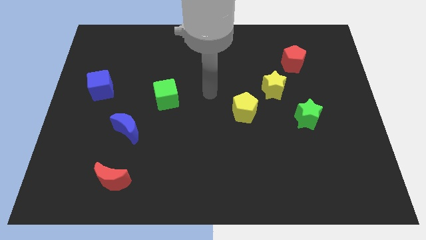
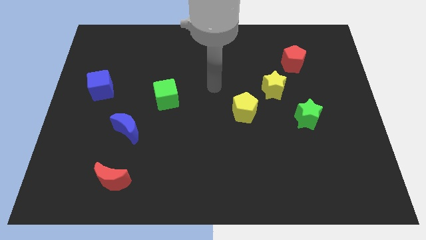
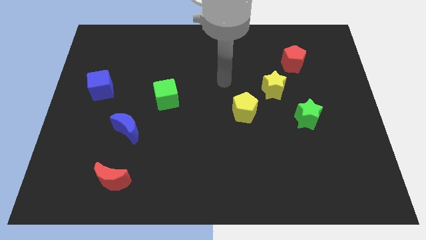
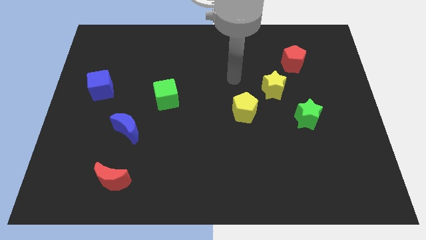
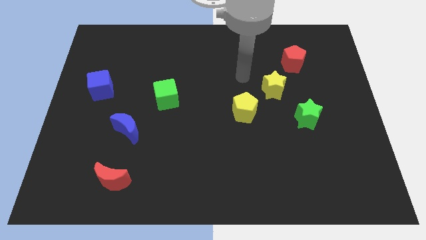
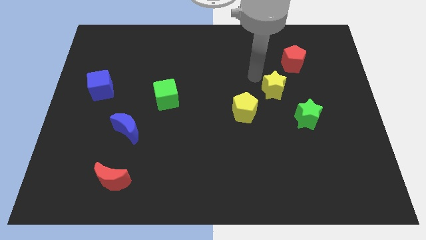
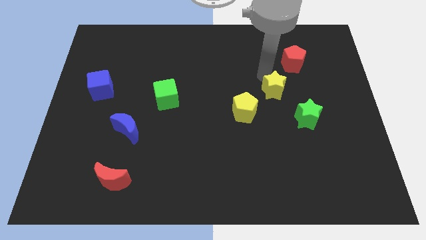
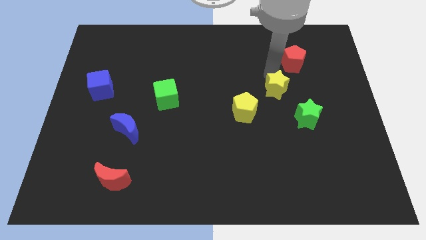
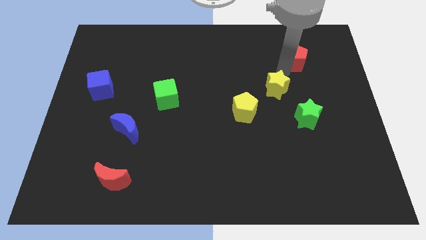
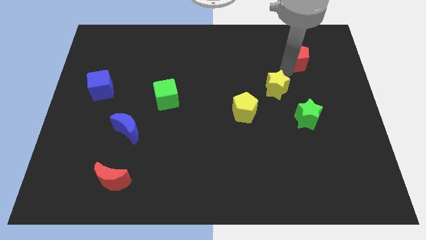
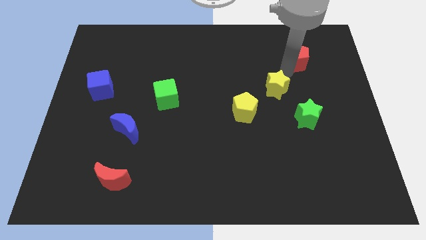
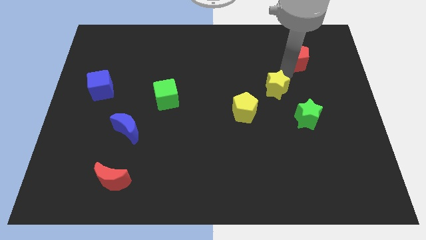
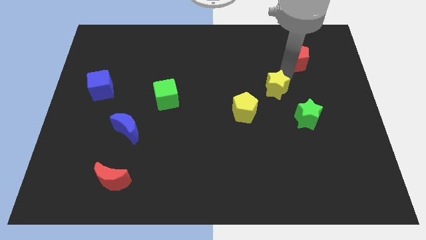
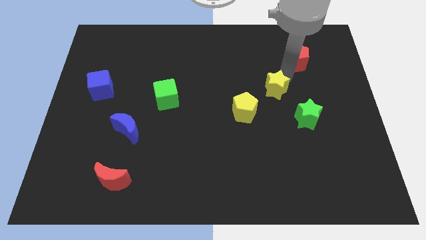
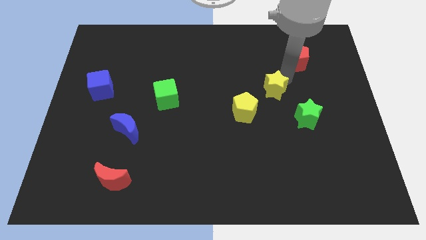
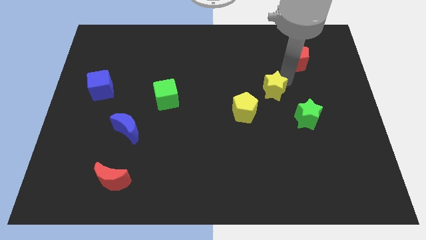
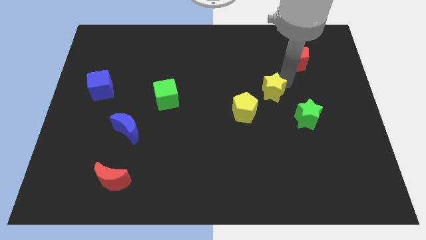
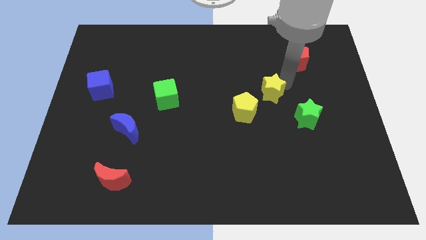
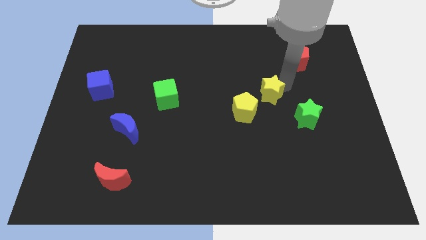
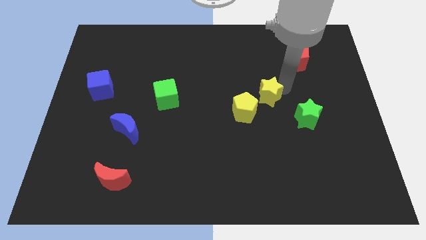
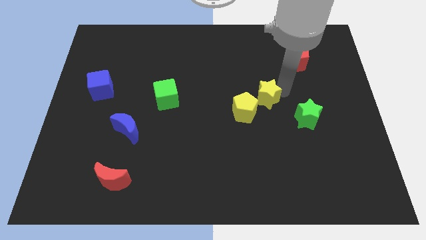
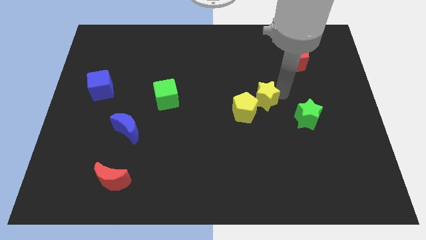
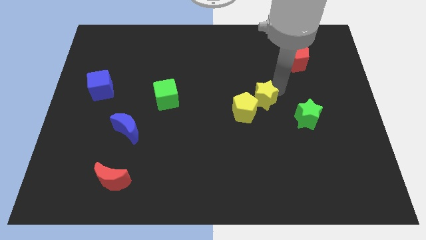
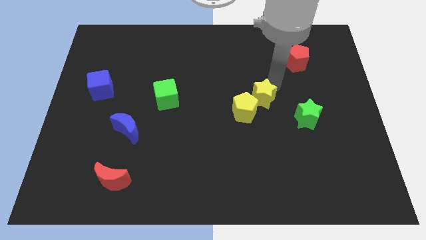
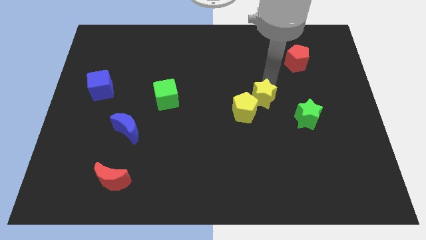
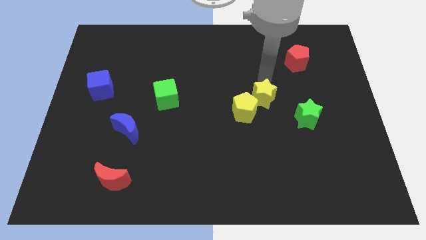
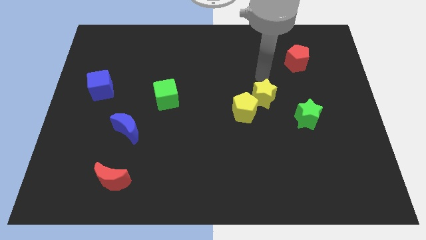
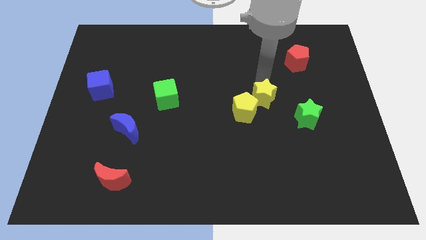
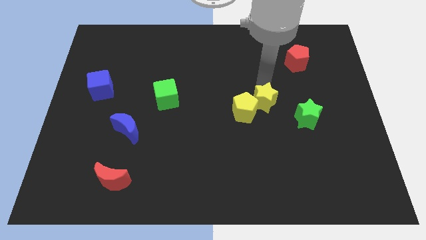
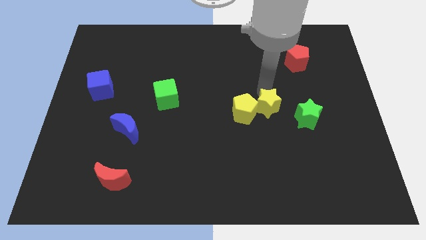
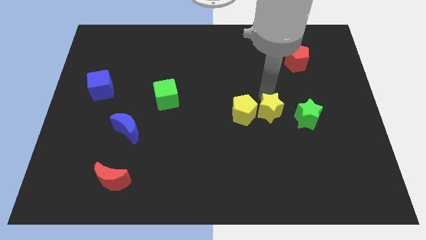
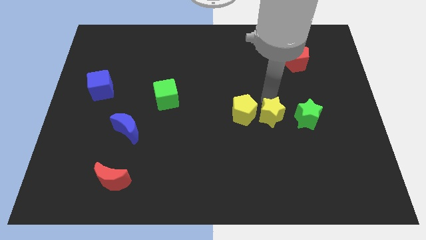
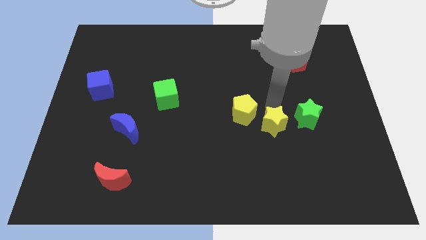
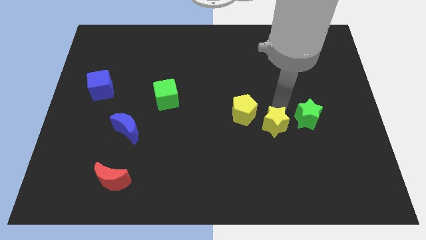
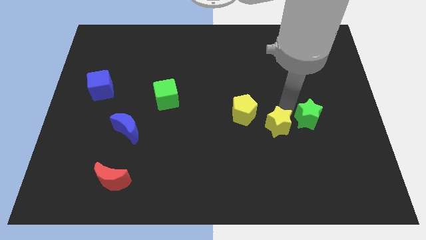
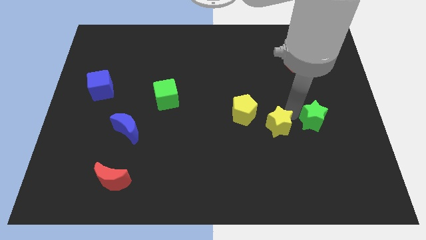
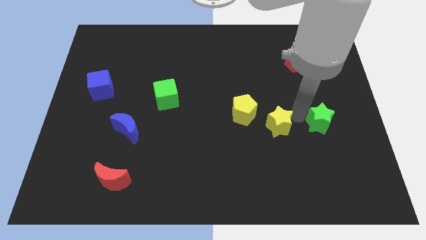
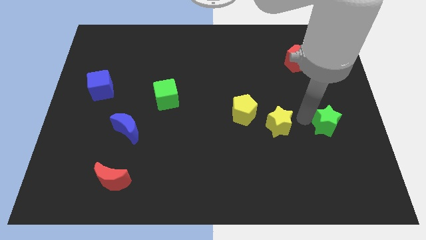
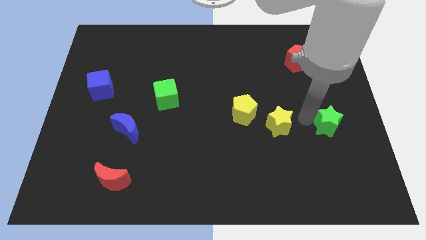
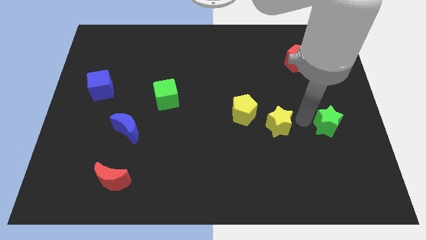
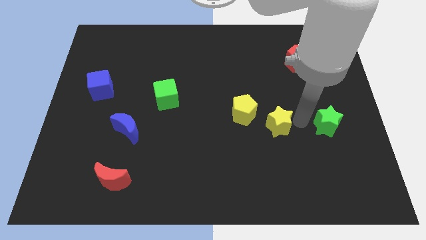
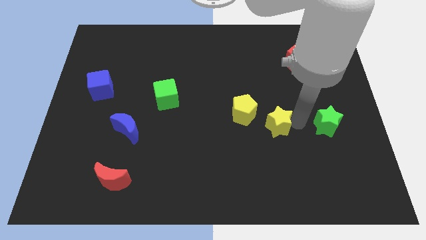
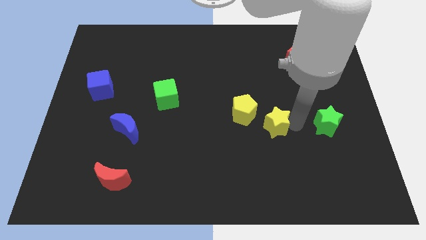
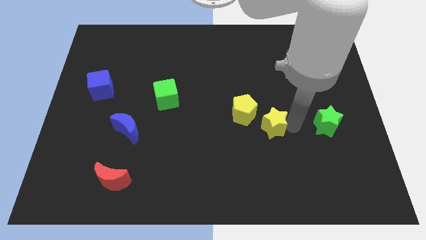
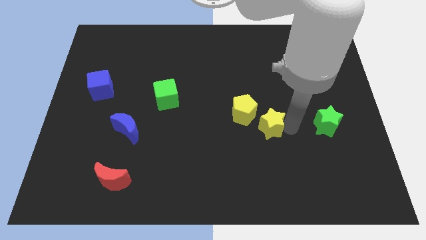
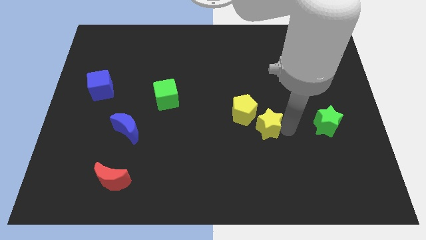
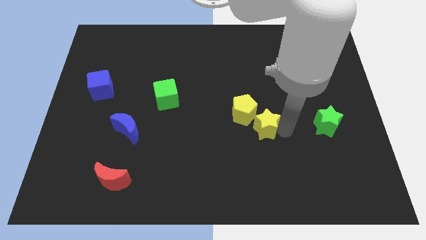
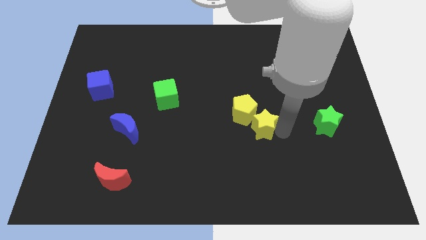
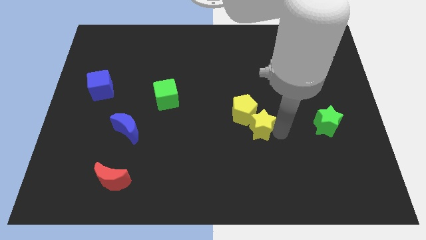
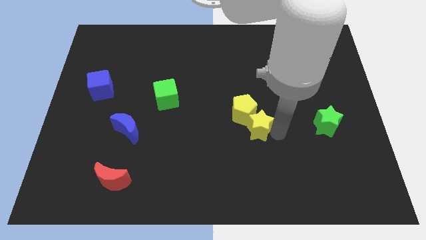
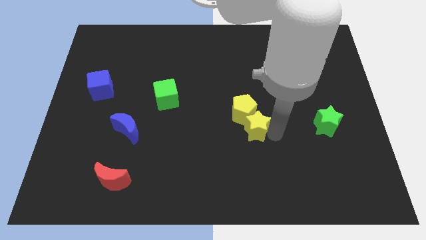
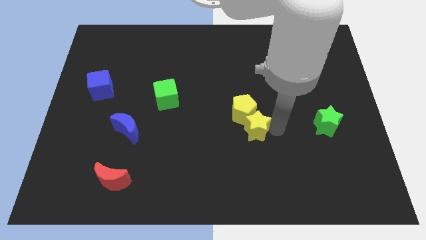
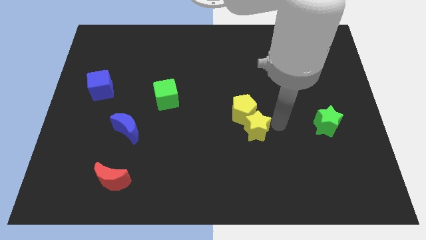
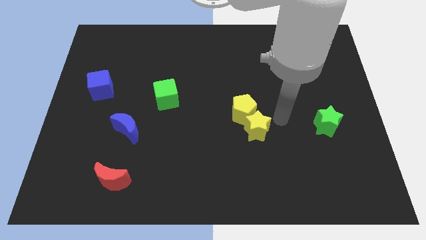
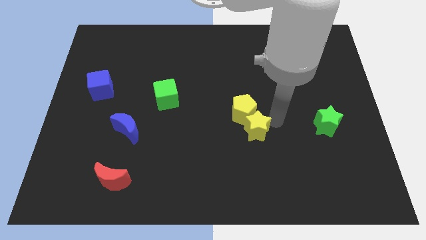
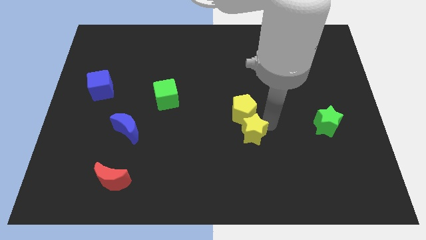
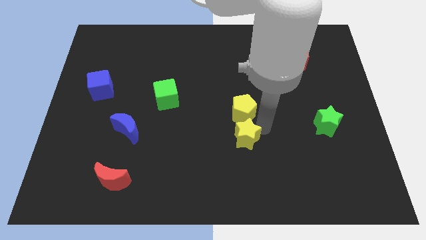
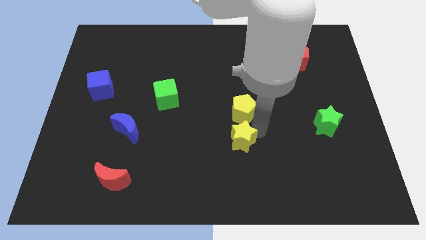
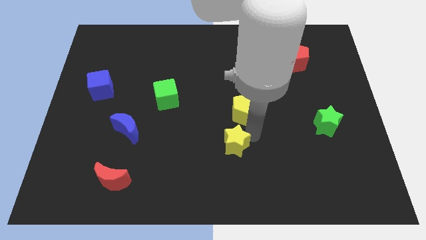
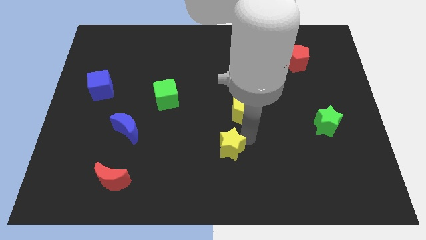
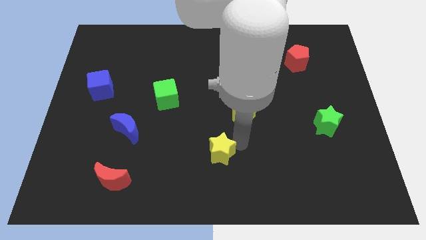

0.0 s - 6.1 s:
move the yellow star down and left diagonally

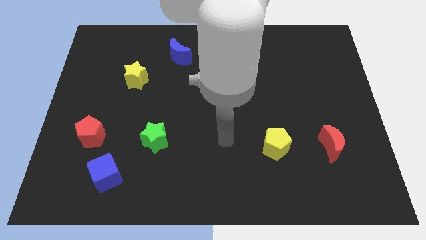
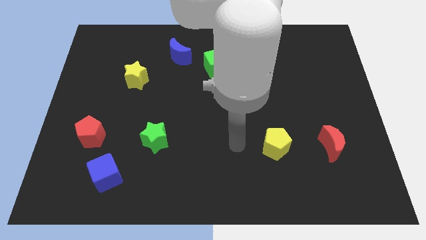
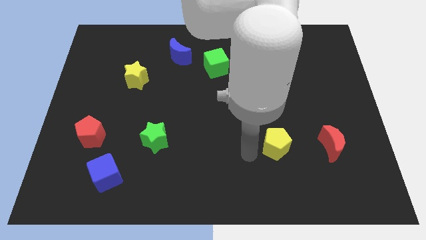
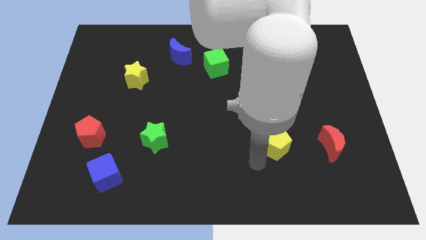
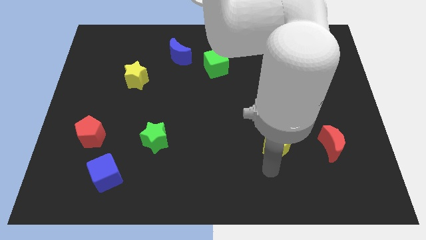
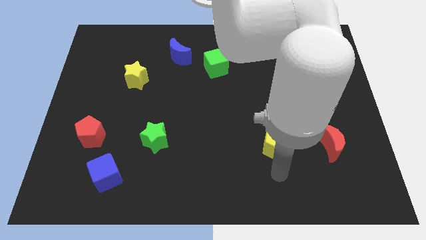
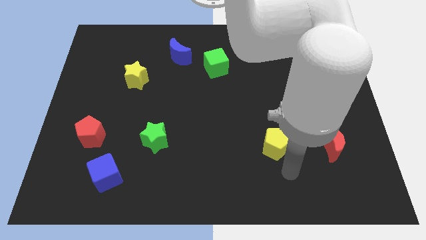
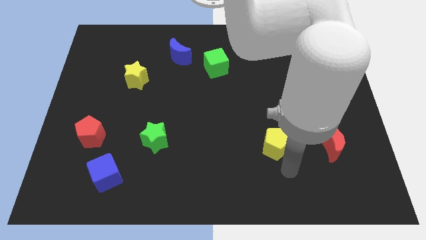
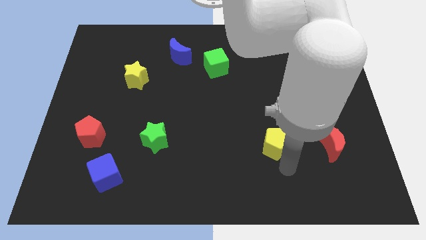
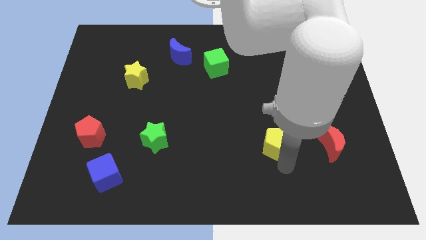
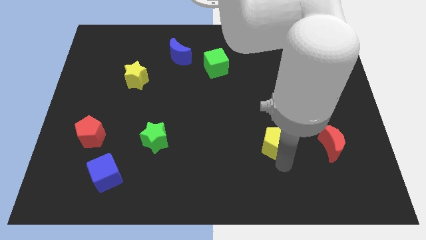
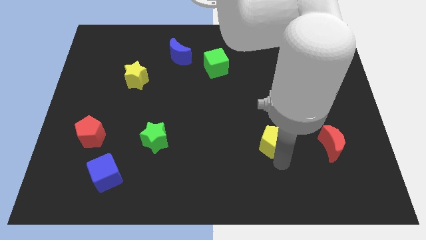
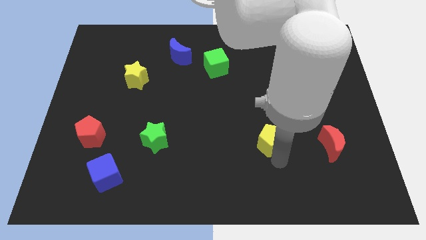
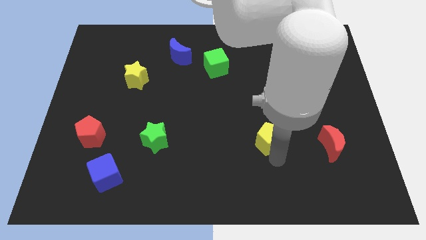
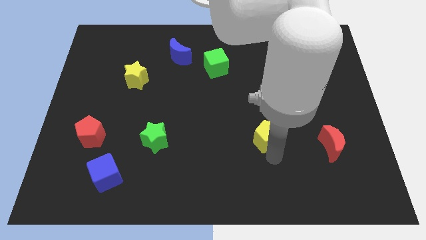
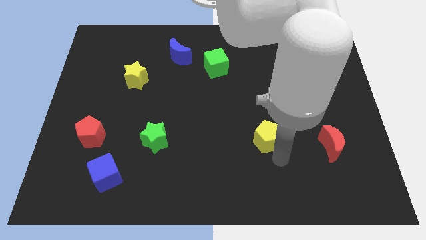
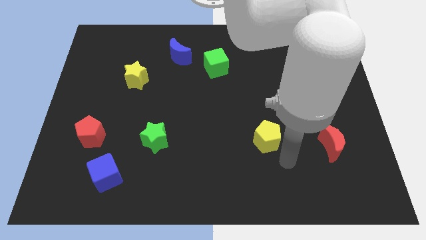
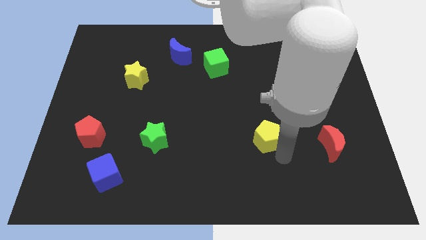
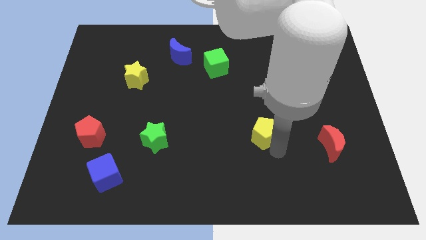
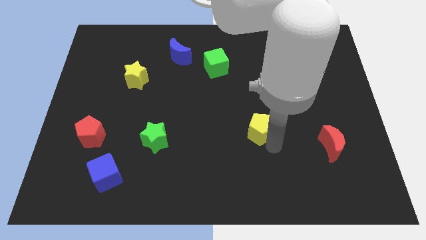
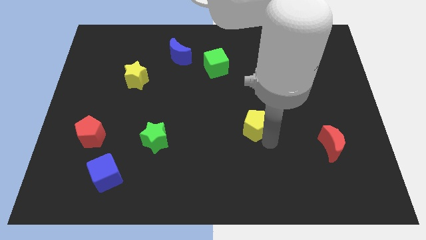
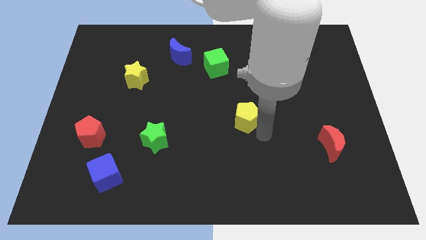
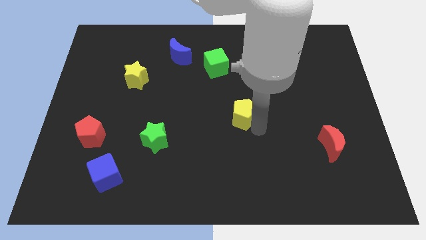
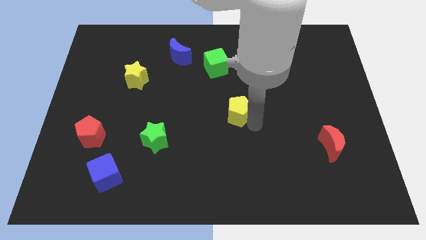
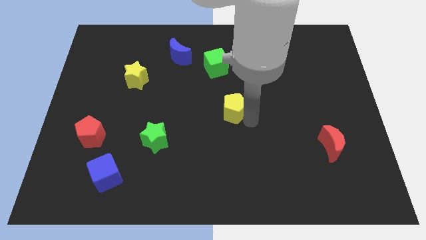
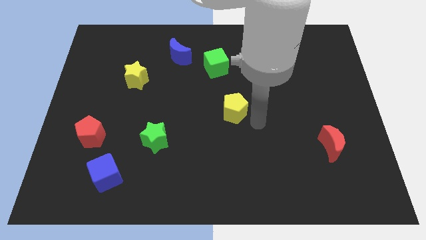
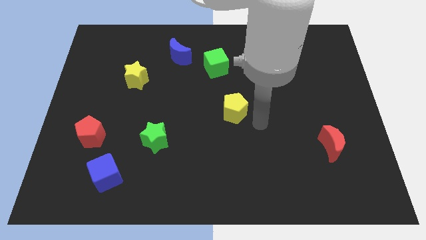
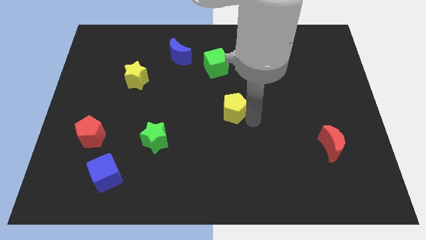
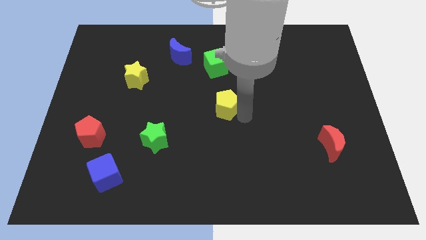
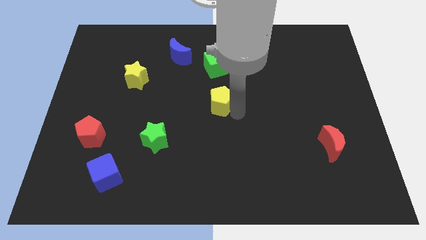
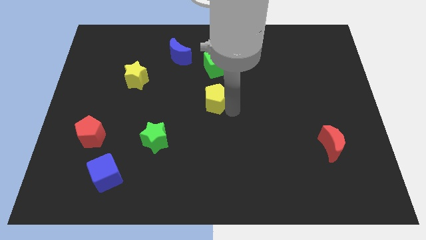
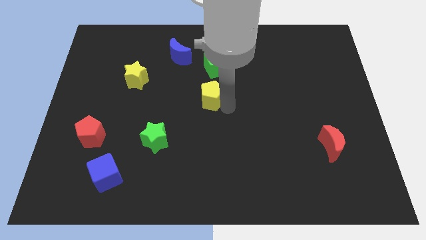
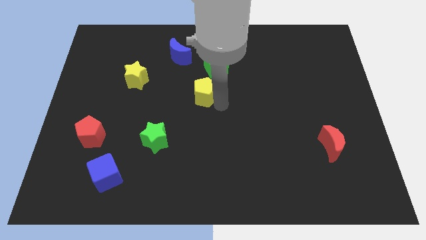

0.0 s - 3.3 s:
slide the yellow pentagon diagonally upwards and to the left
